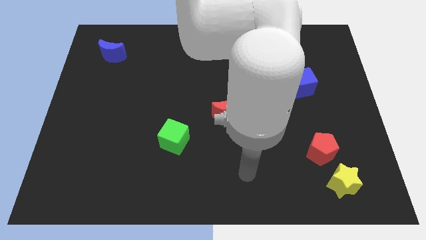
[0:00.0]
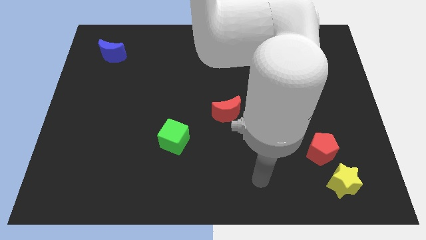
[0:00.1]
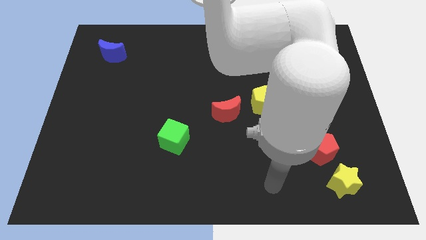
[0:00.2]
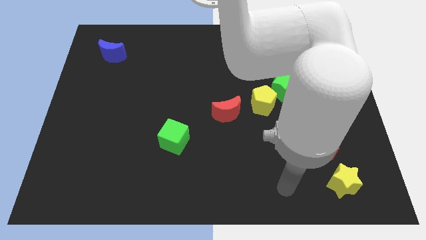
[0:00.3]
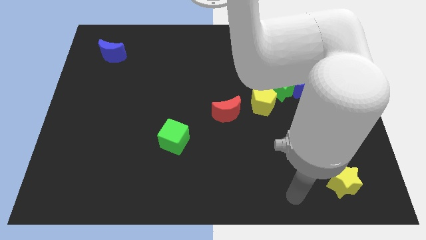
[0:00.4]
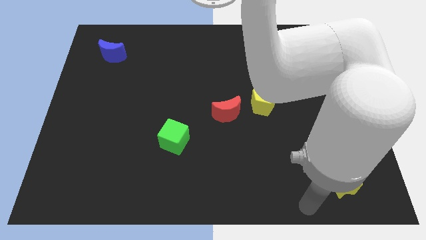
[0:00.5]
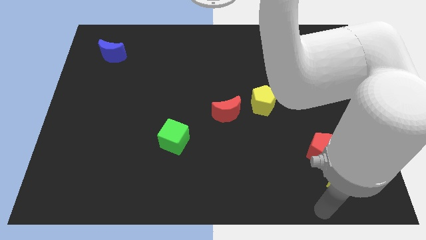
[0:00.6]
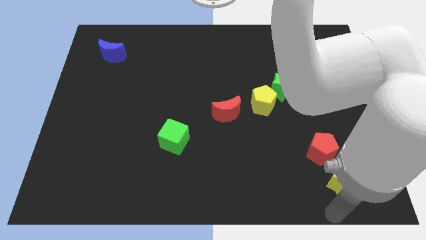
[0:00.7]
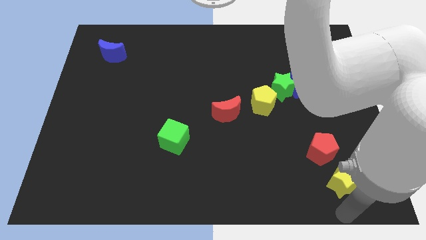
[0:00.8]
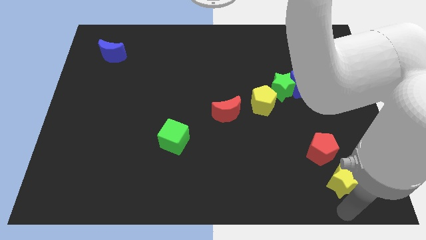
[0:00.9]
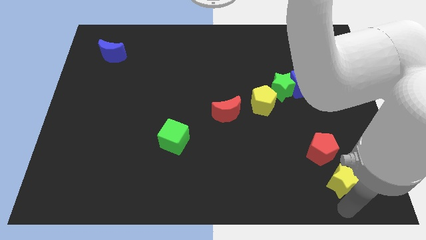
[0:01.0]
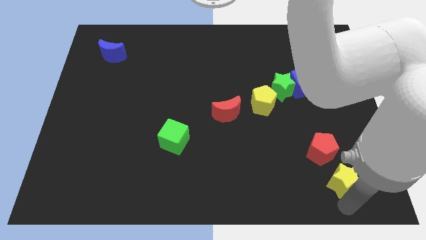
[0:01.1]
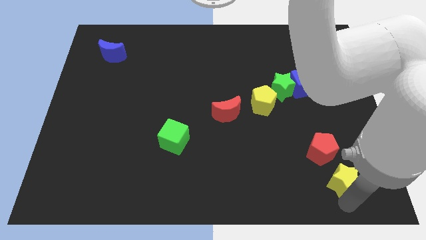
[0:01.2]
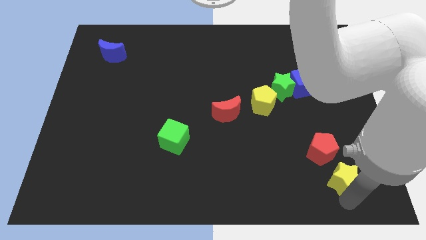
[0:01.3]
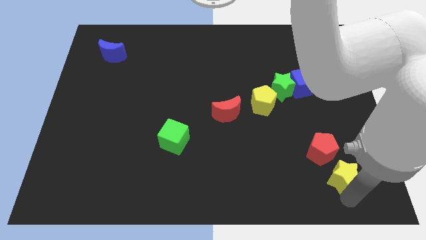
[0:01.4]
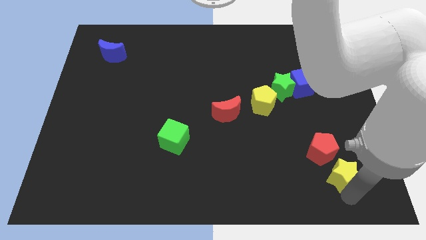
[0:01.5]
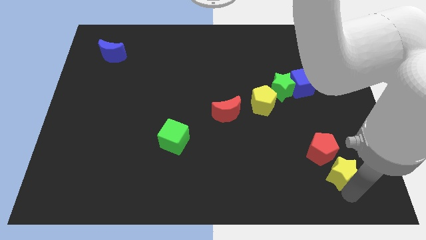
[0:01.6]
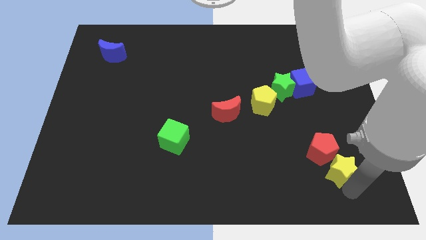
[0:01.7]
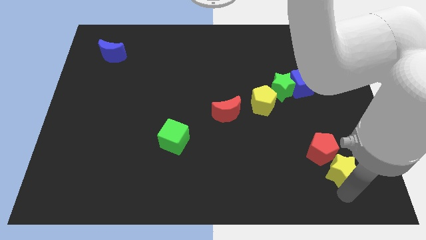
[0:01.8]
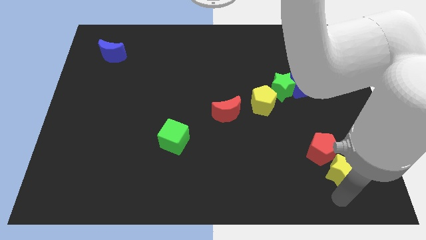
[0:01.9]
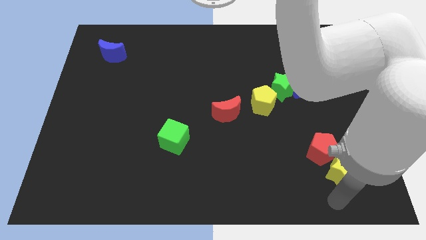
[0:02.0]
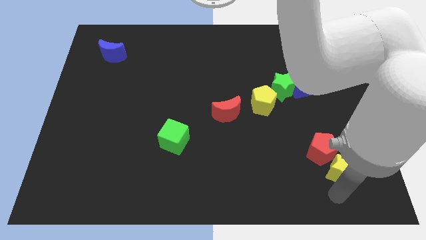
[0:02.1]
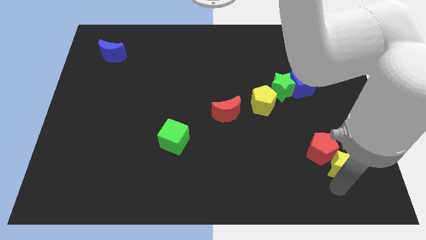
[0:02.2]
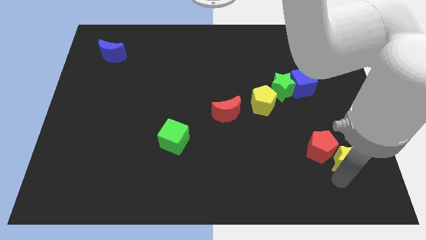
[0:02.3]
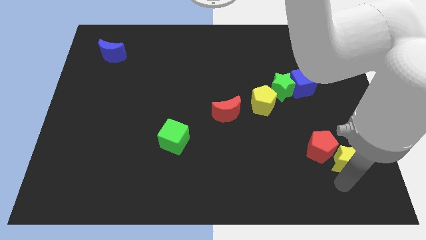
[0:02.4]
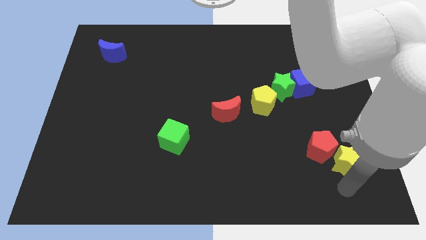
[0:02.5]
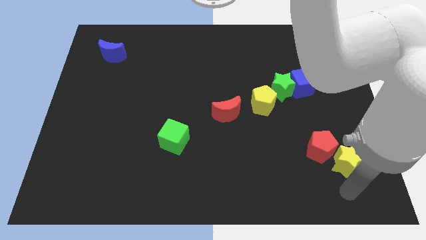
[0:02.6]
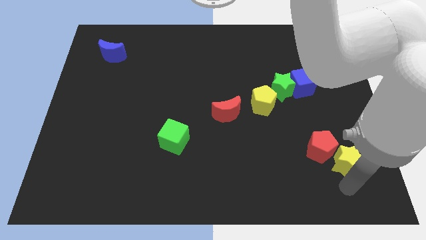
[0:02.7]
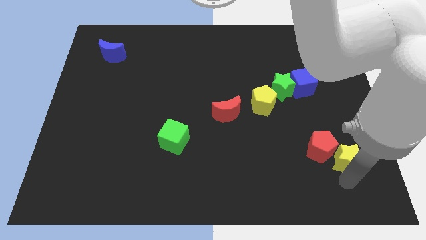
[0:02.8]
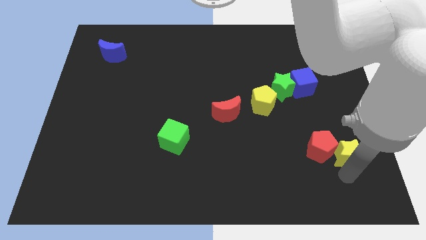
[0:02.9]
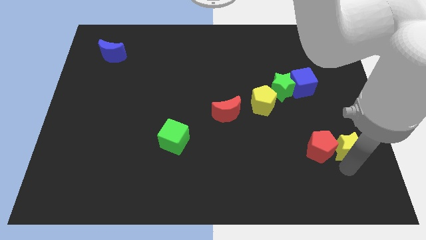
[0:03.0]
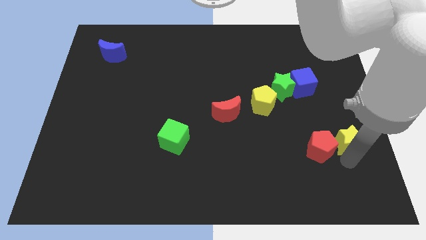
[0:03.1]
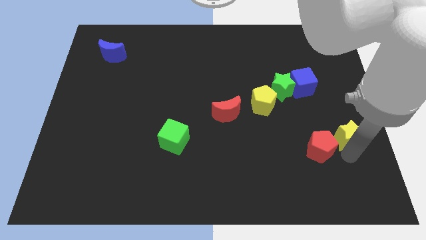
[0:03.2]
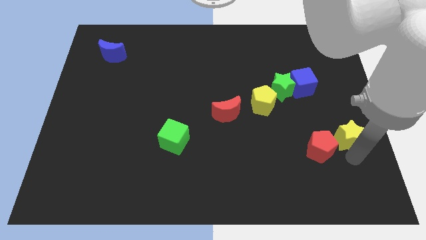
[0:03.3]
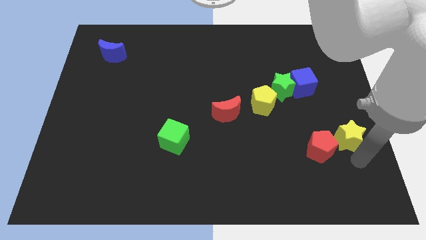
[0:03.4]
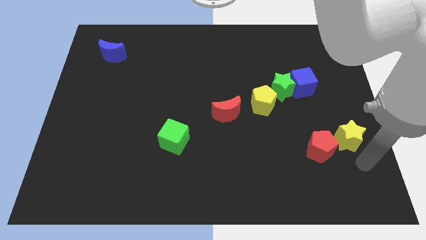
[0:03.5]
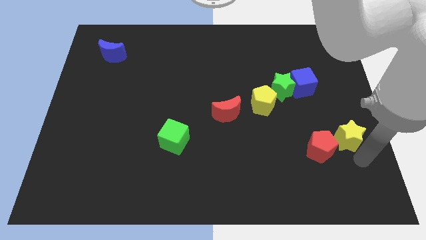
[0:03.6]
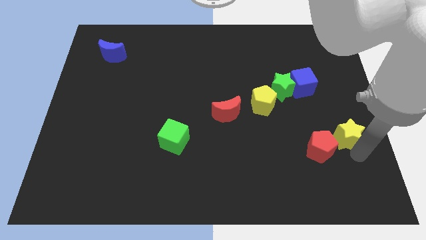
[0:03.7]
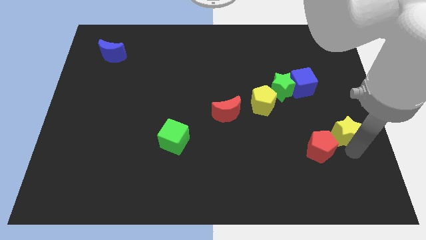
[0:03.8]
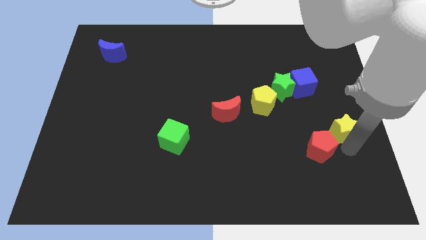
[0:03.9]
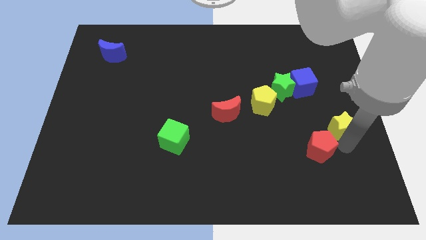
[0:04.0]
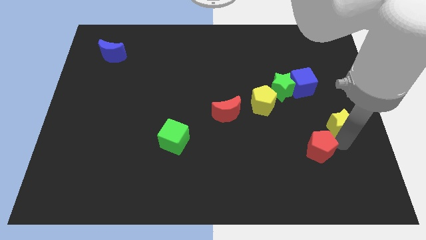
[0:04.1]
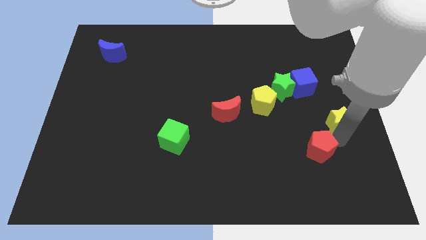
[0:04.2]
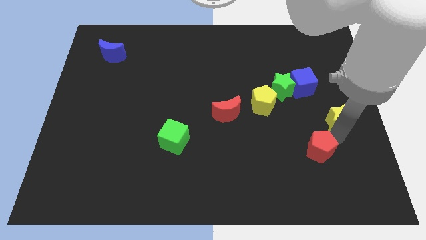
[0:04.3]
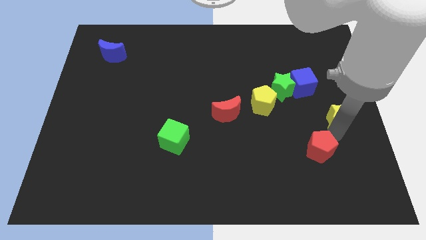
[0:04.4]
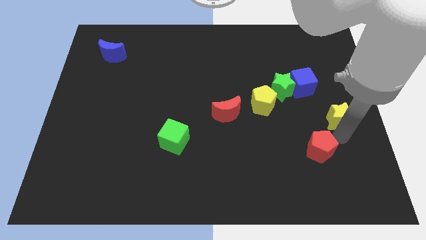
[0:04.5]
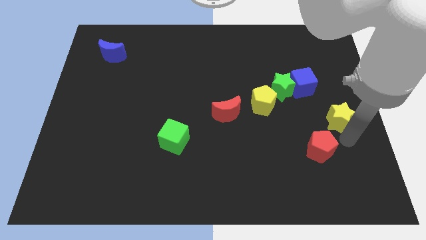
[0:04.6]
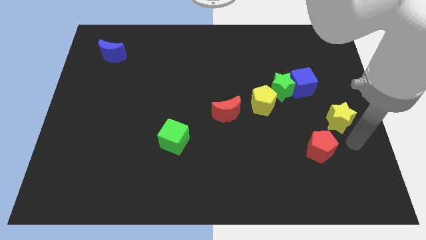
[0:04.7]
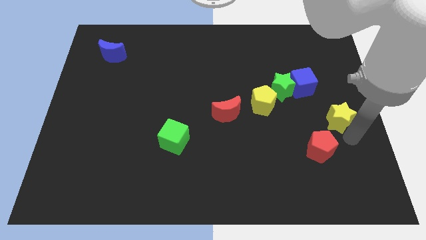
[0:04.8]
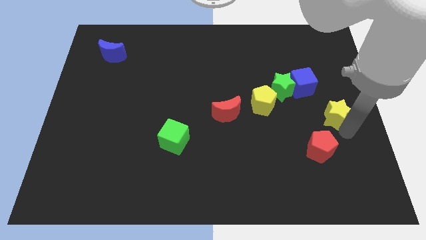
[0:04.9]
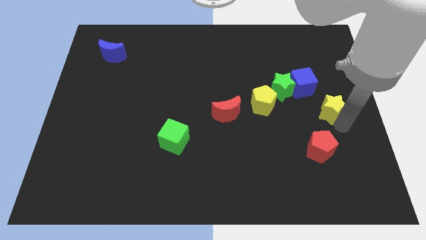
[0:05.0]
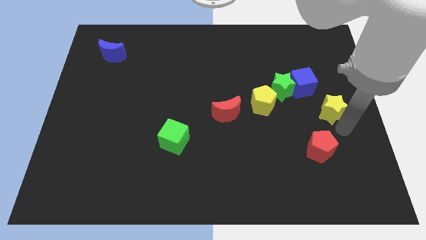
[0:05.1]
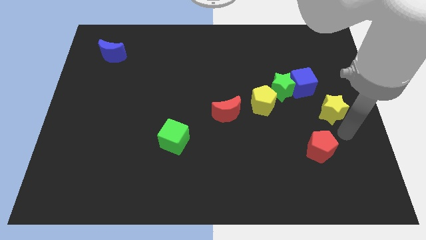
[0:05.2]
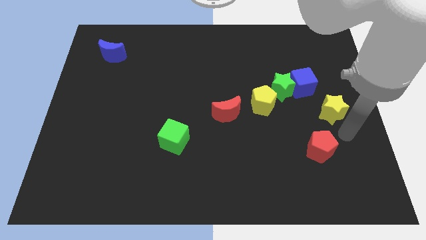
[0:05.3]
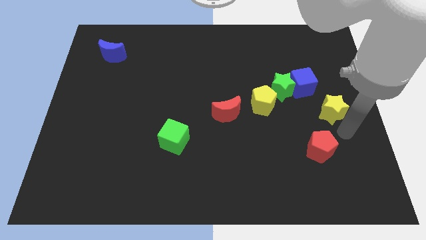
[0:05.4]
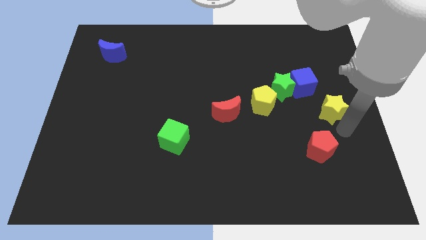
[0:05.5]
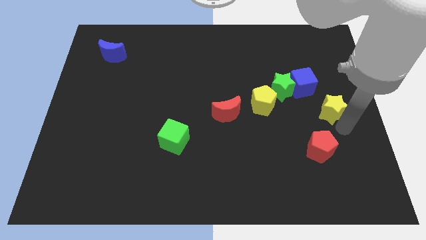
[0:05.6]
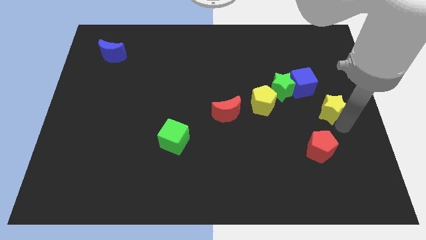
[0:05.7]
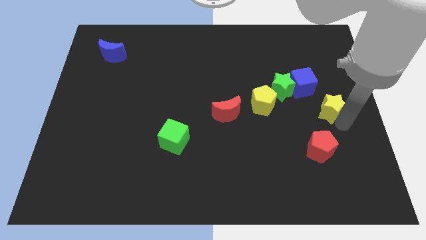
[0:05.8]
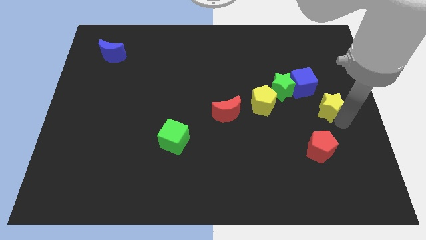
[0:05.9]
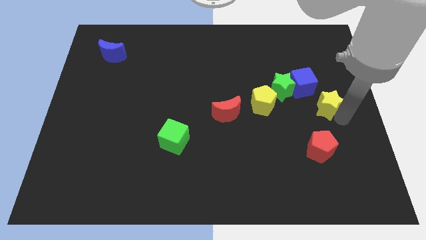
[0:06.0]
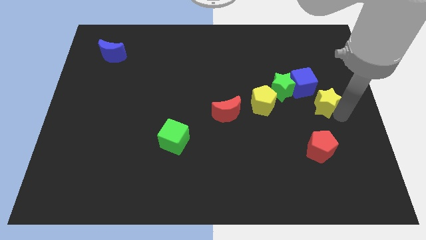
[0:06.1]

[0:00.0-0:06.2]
slide the yellow star upwards

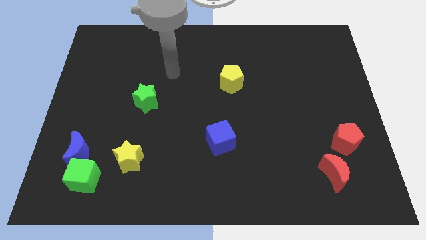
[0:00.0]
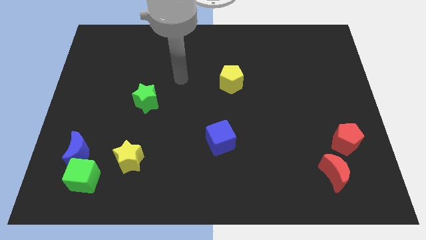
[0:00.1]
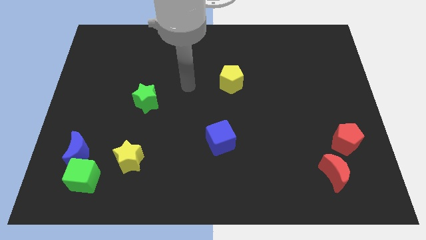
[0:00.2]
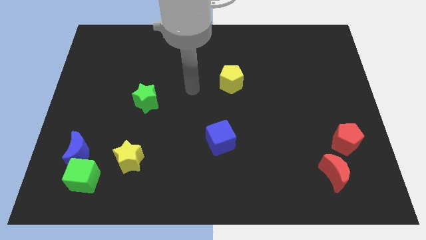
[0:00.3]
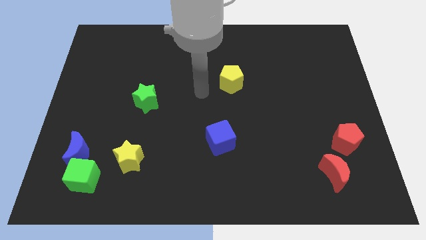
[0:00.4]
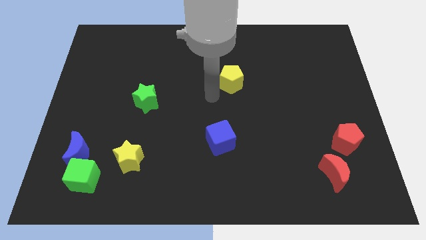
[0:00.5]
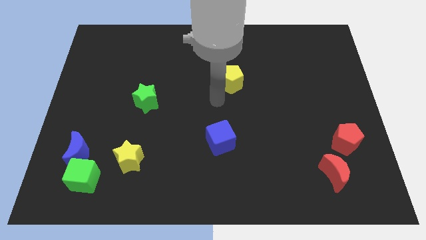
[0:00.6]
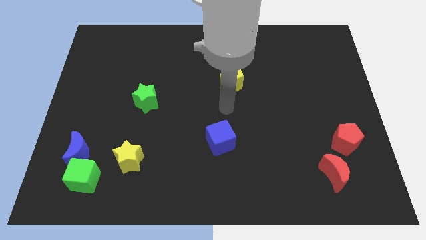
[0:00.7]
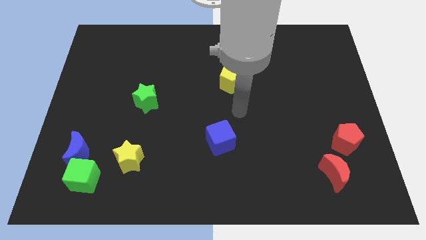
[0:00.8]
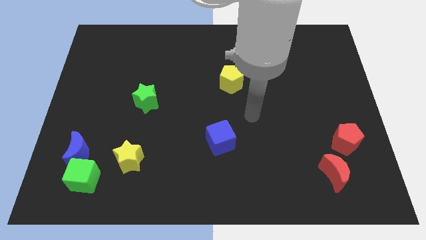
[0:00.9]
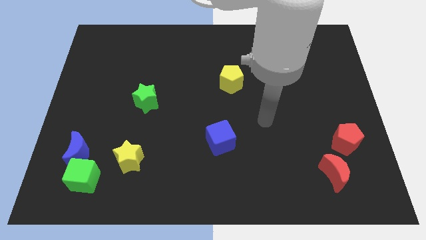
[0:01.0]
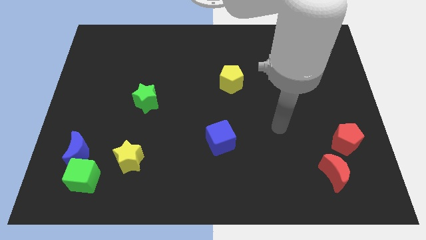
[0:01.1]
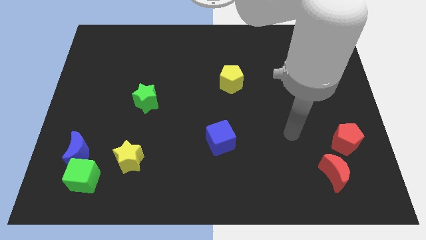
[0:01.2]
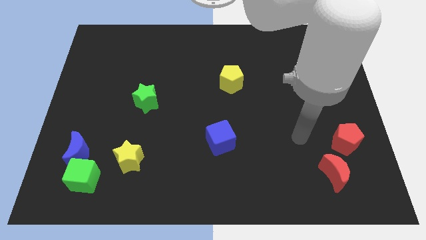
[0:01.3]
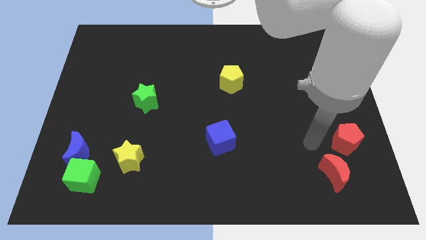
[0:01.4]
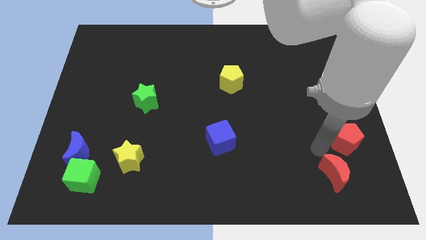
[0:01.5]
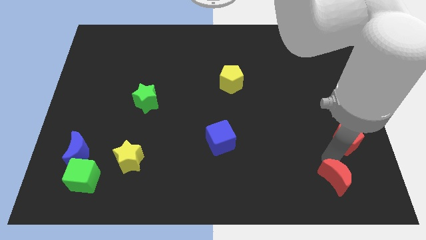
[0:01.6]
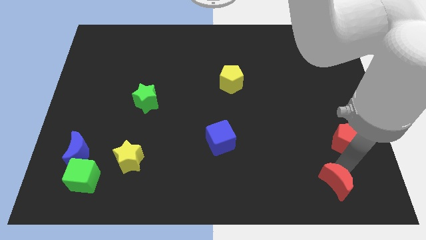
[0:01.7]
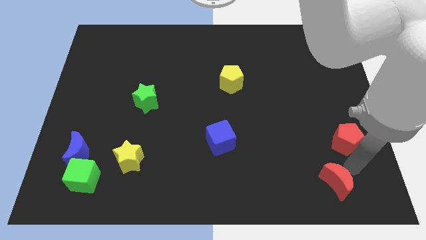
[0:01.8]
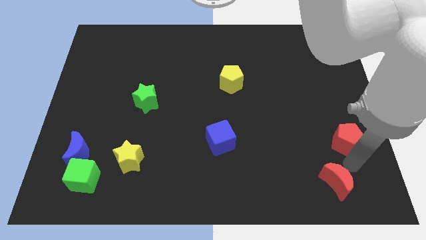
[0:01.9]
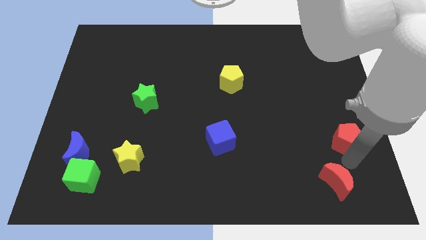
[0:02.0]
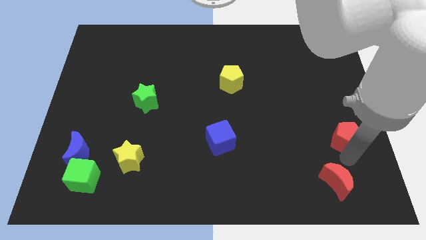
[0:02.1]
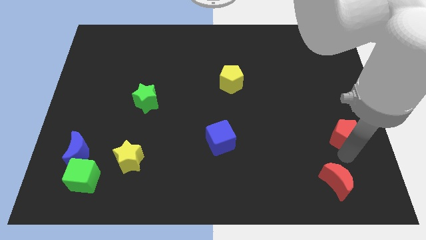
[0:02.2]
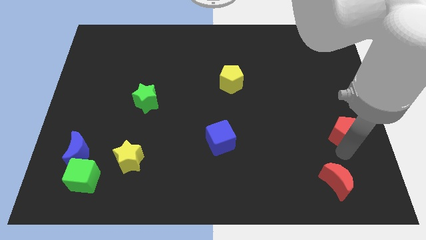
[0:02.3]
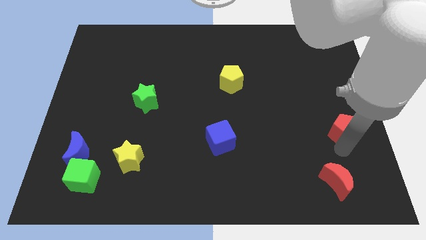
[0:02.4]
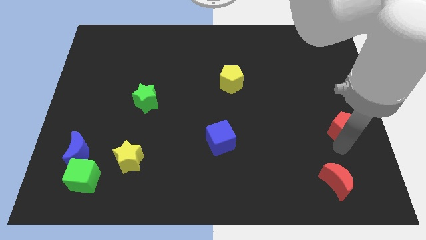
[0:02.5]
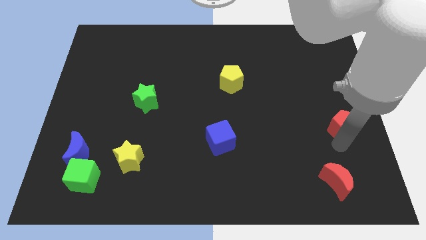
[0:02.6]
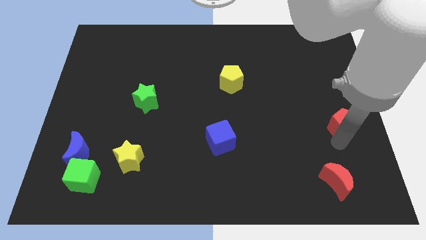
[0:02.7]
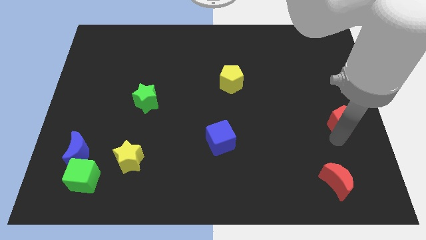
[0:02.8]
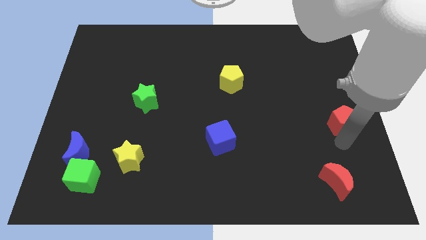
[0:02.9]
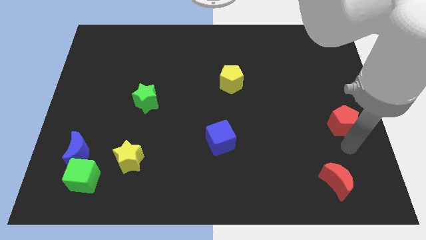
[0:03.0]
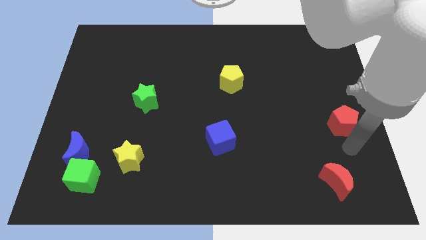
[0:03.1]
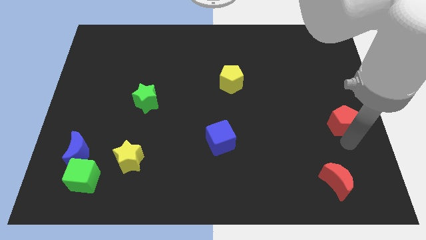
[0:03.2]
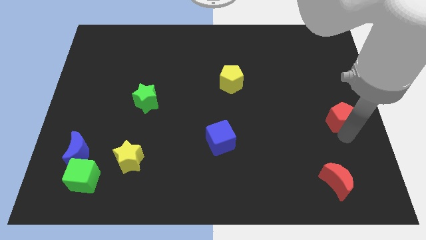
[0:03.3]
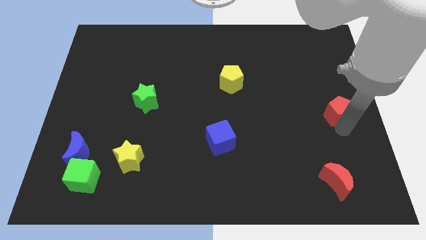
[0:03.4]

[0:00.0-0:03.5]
push the red pentagon up a little
